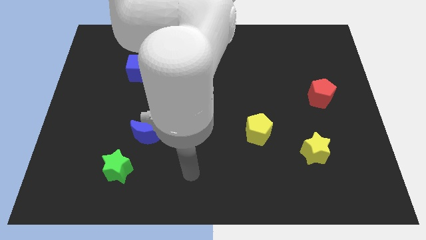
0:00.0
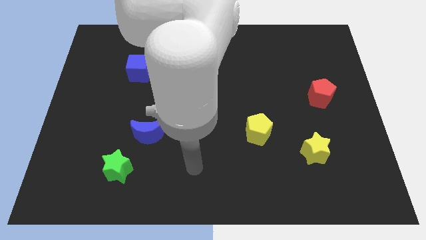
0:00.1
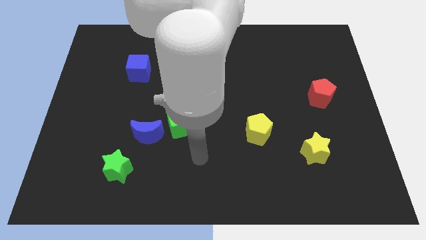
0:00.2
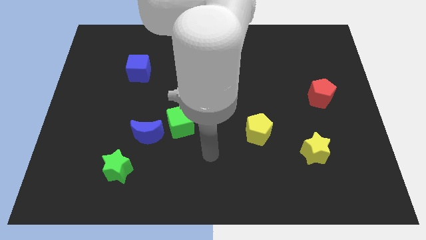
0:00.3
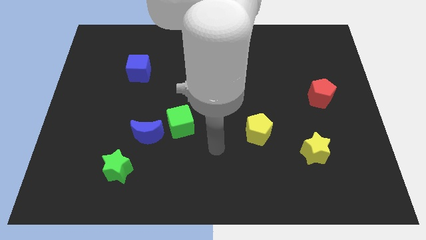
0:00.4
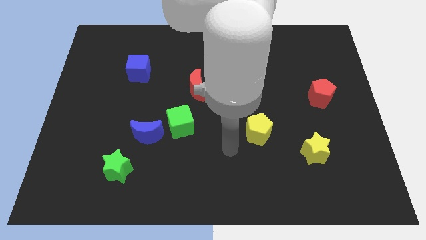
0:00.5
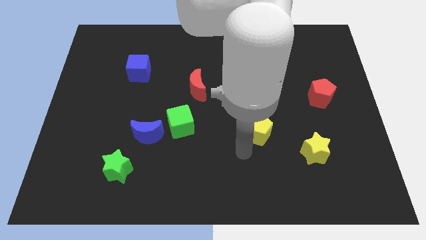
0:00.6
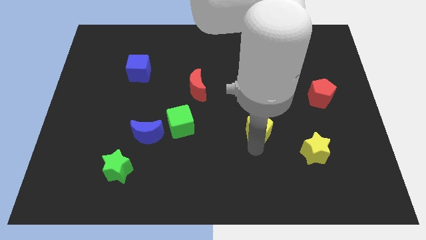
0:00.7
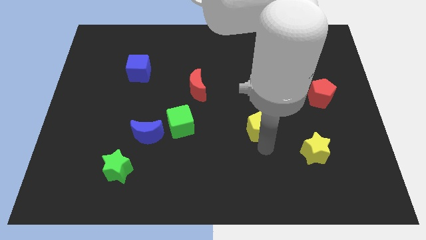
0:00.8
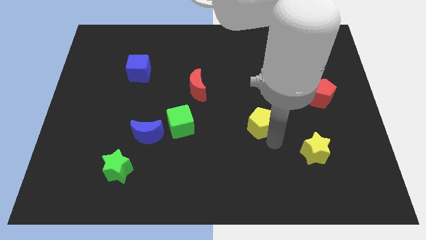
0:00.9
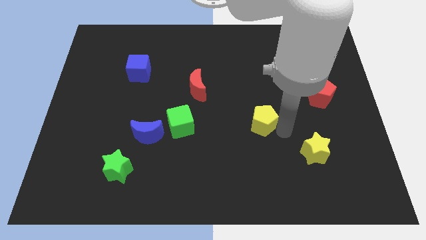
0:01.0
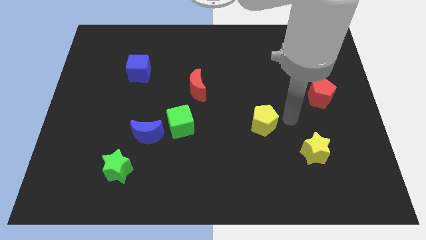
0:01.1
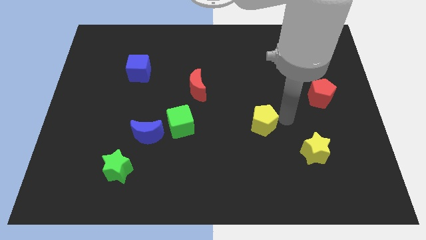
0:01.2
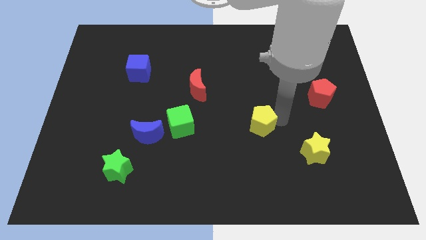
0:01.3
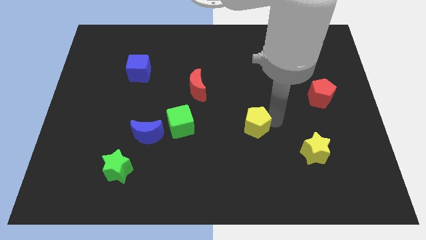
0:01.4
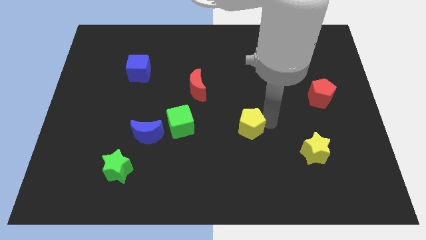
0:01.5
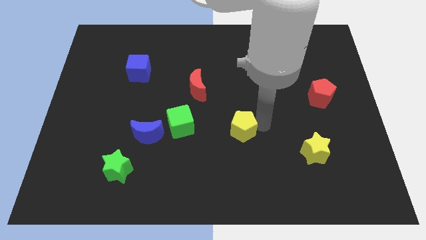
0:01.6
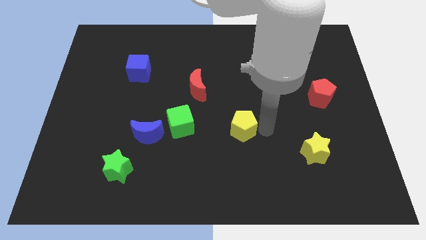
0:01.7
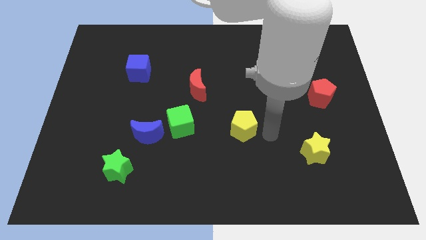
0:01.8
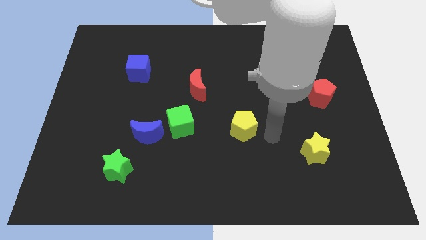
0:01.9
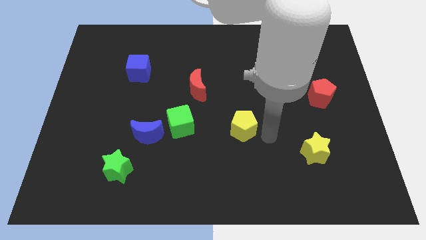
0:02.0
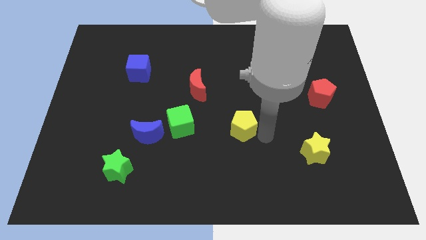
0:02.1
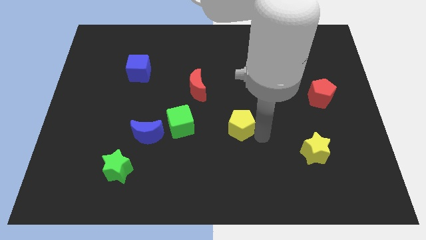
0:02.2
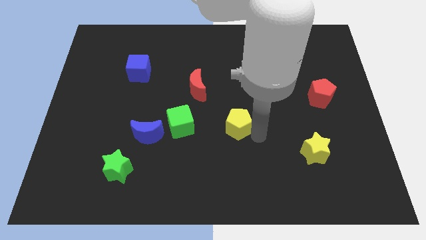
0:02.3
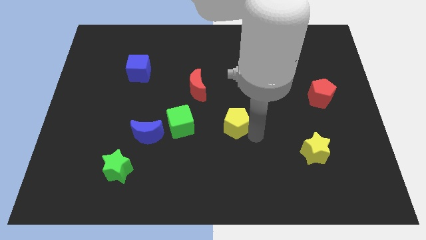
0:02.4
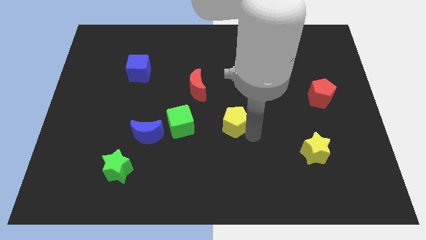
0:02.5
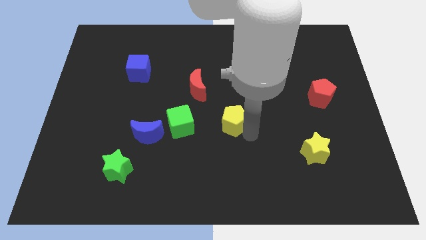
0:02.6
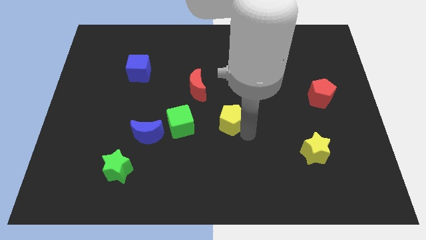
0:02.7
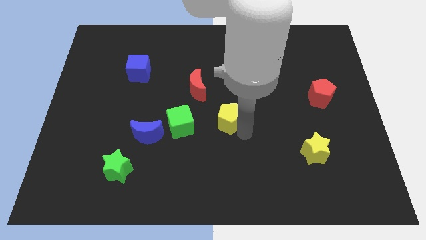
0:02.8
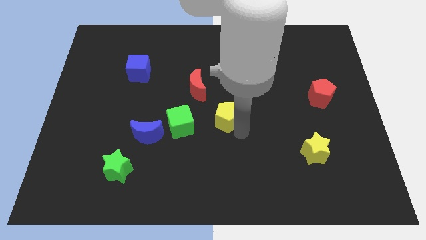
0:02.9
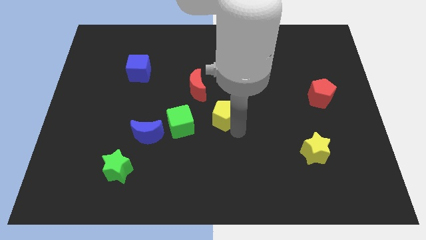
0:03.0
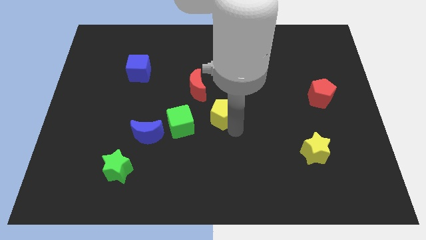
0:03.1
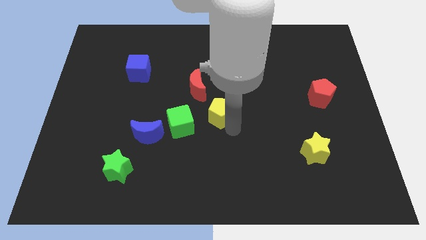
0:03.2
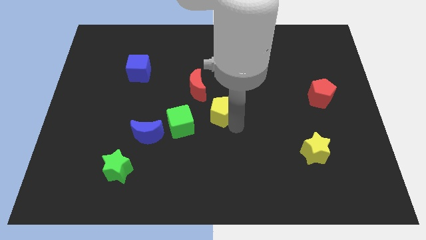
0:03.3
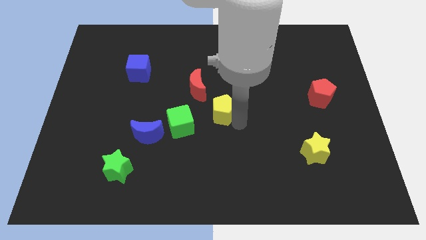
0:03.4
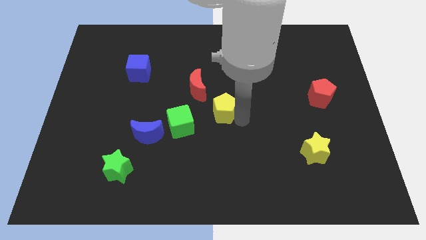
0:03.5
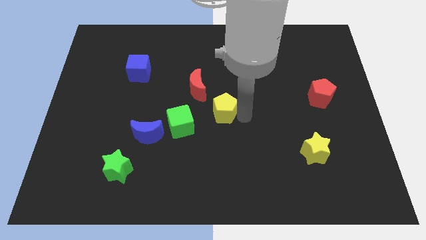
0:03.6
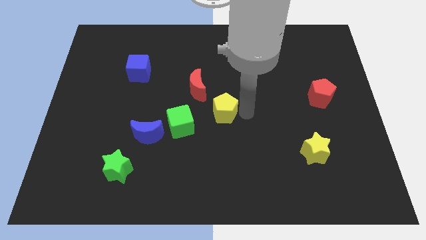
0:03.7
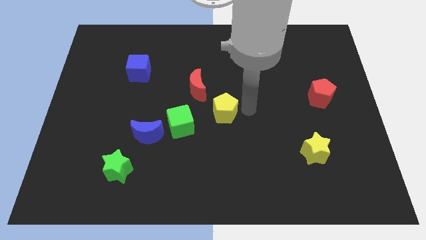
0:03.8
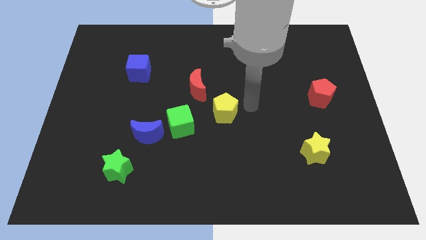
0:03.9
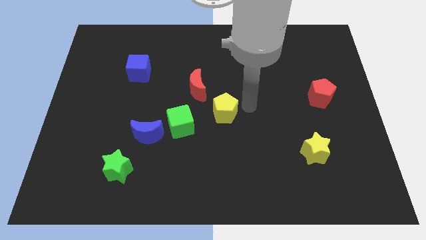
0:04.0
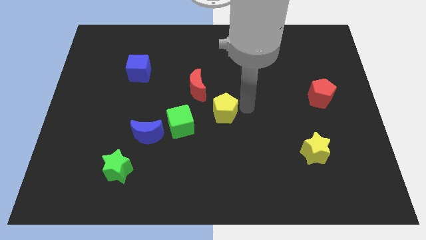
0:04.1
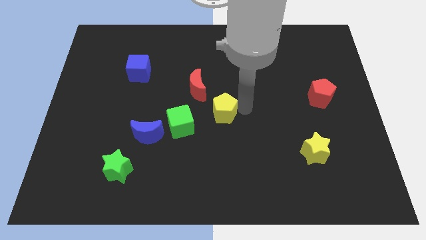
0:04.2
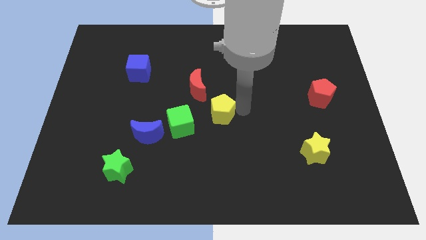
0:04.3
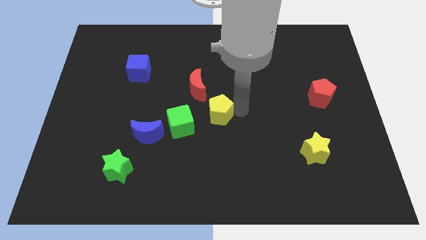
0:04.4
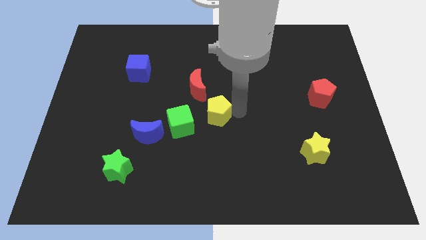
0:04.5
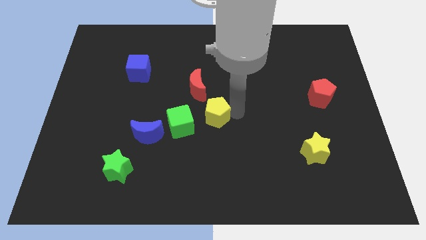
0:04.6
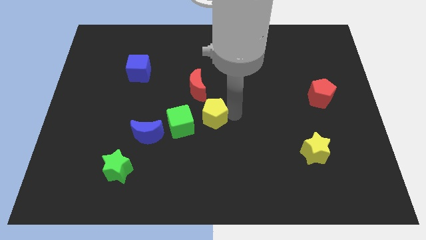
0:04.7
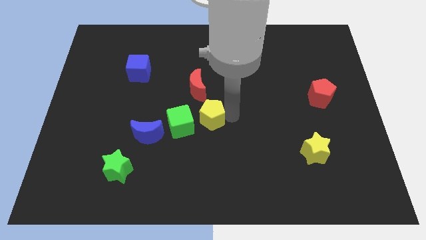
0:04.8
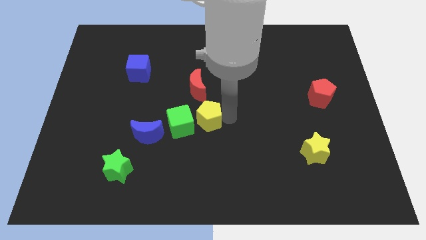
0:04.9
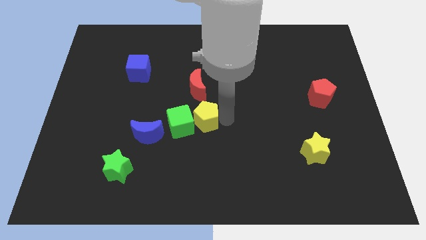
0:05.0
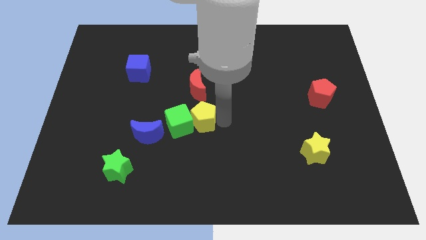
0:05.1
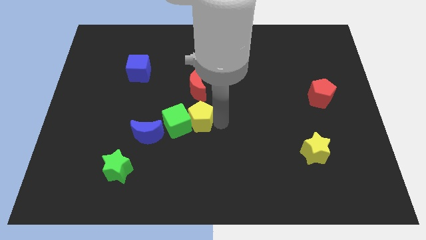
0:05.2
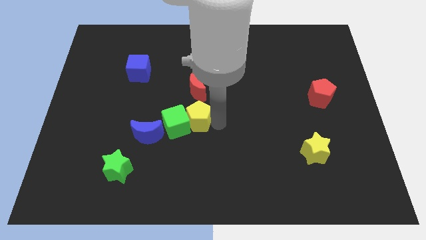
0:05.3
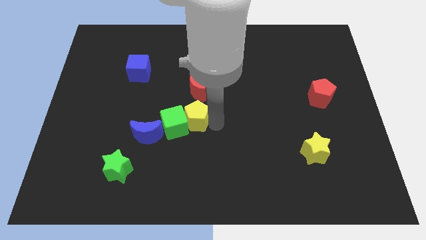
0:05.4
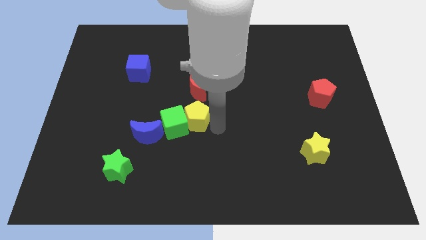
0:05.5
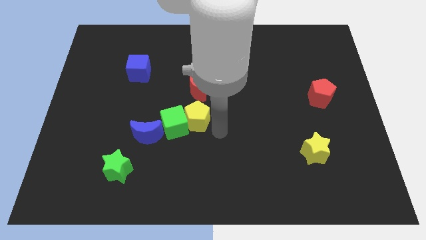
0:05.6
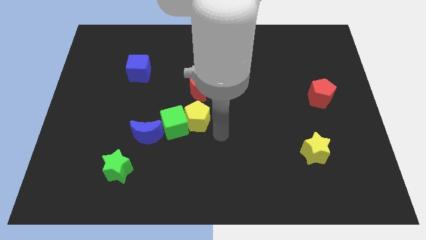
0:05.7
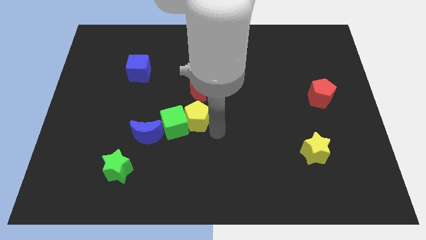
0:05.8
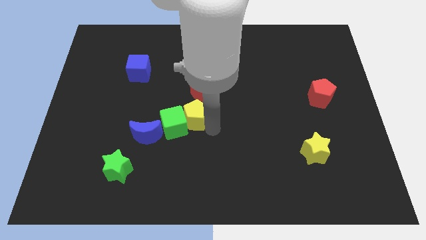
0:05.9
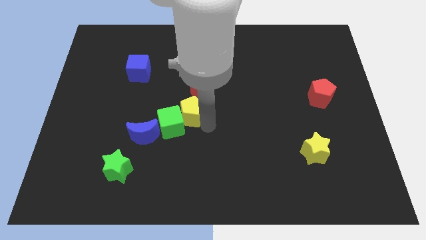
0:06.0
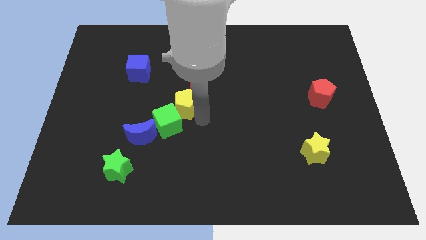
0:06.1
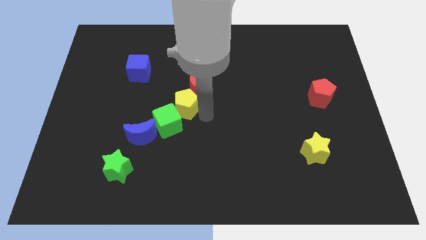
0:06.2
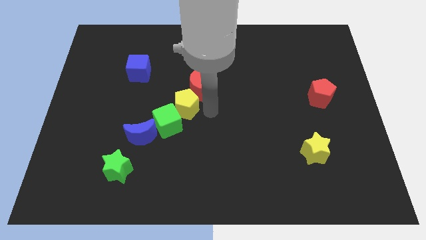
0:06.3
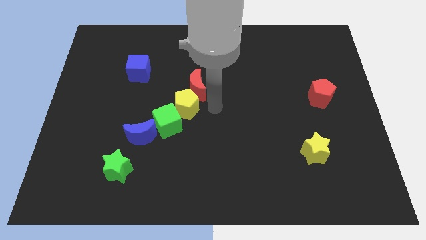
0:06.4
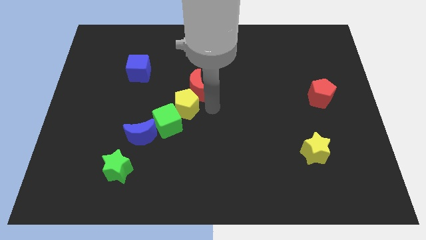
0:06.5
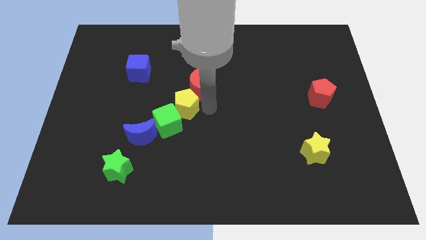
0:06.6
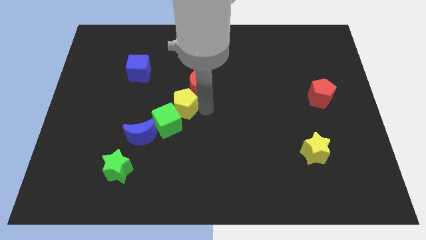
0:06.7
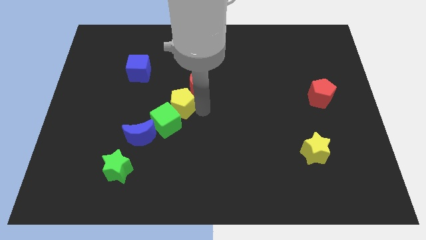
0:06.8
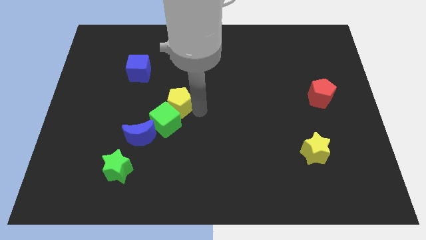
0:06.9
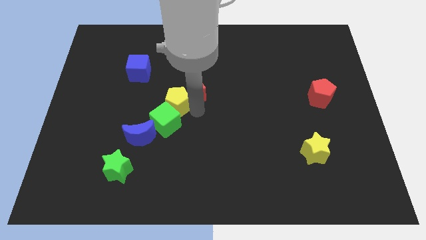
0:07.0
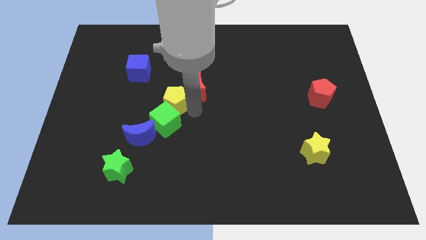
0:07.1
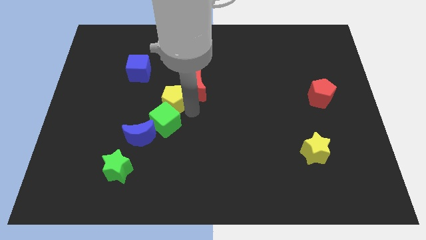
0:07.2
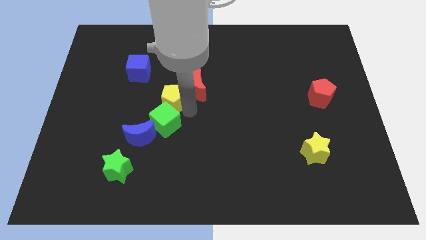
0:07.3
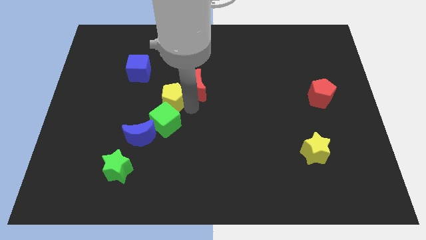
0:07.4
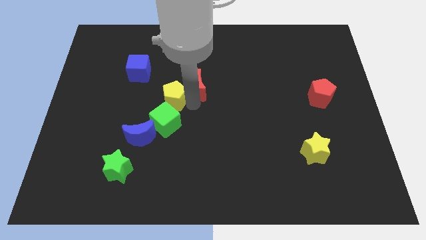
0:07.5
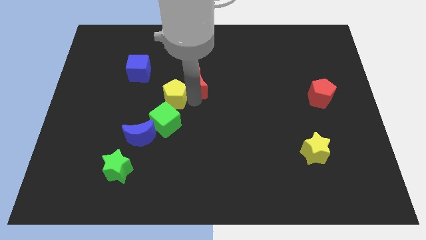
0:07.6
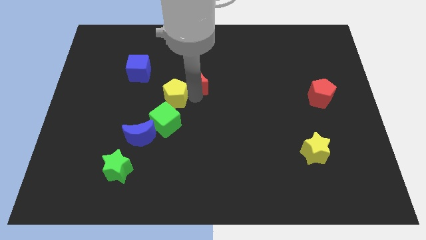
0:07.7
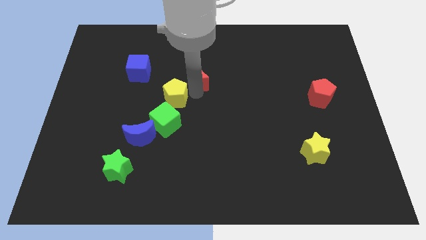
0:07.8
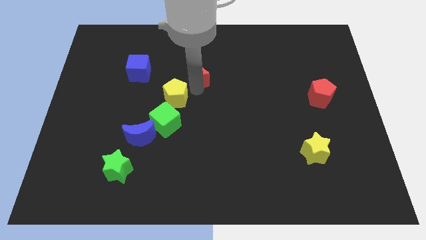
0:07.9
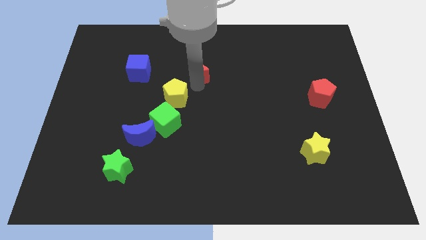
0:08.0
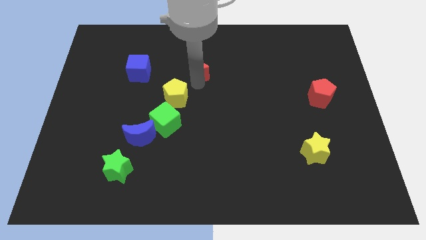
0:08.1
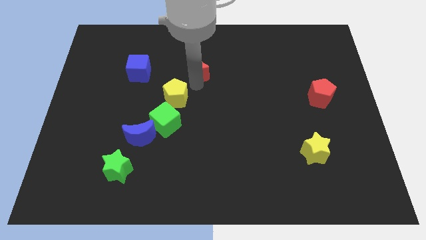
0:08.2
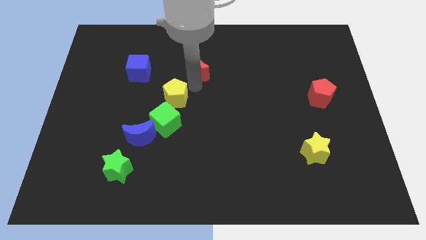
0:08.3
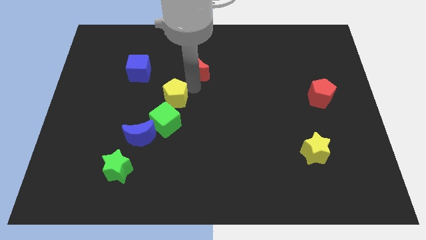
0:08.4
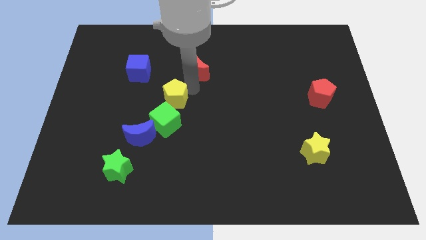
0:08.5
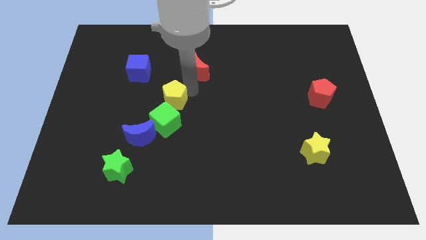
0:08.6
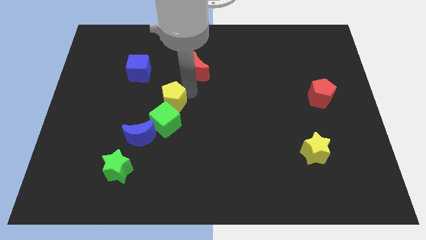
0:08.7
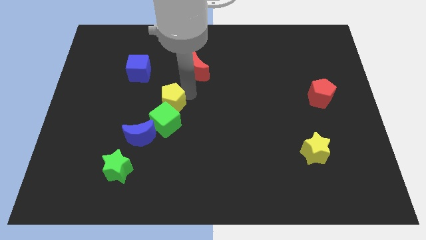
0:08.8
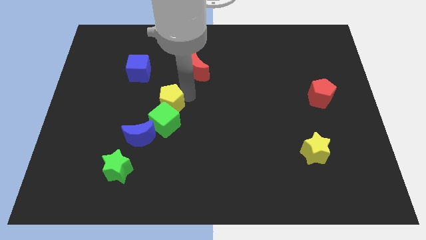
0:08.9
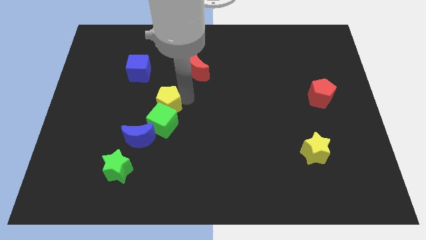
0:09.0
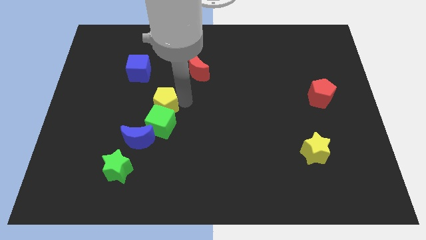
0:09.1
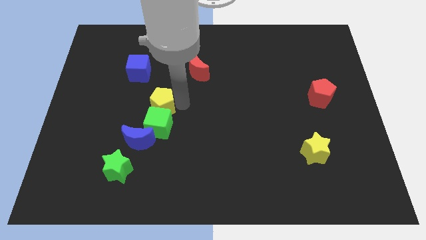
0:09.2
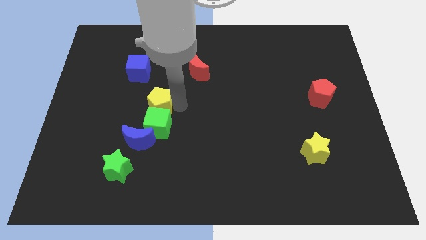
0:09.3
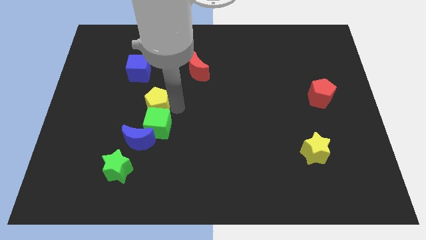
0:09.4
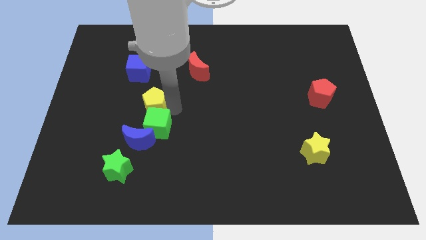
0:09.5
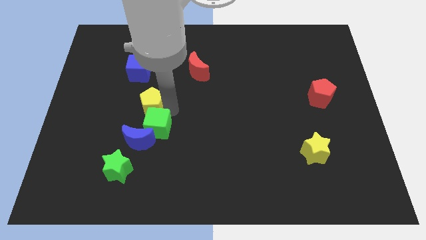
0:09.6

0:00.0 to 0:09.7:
put the yellow pentagon to the bottom of the blue cube
